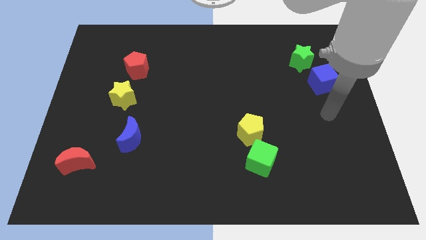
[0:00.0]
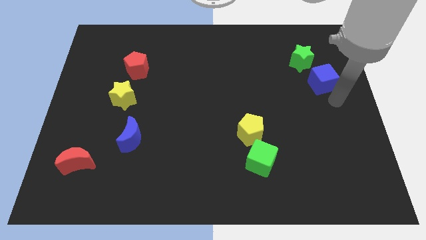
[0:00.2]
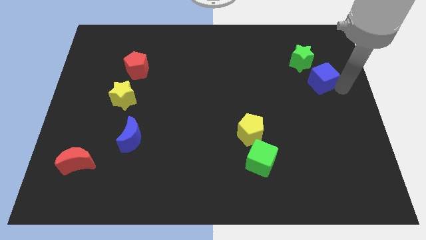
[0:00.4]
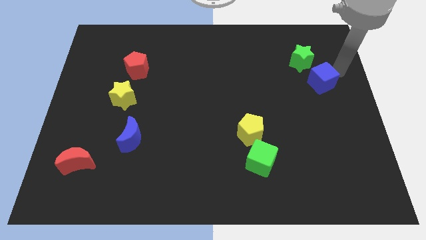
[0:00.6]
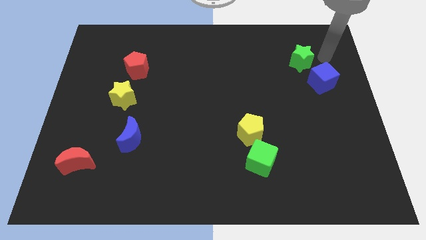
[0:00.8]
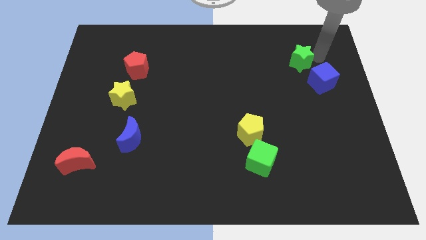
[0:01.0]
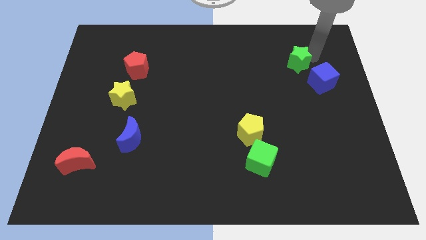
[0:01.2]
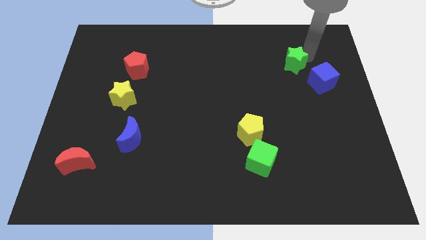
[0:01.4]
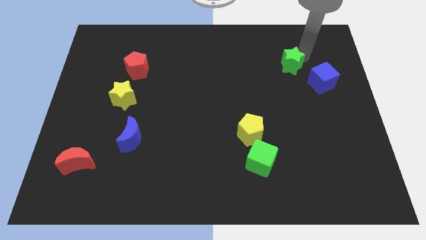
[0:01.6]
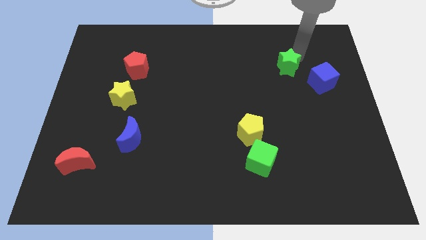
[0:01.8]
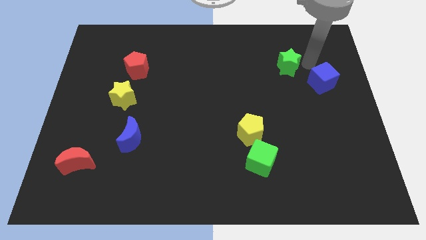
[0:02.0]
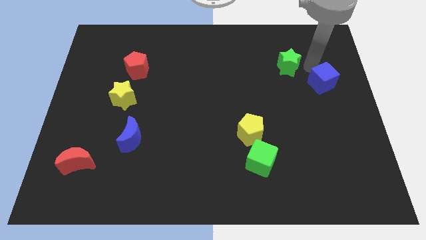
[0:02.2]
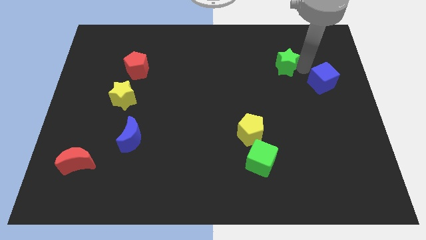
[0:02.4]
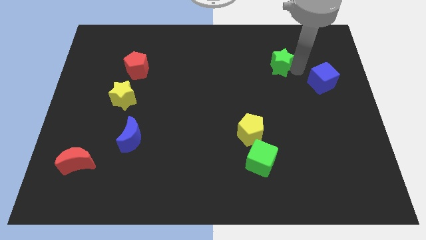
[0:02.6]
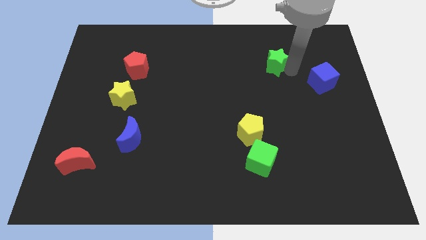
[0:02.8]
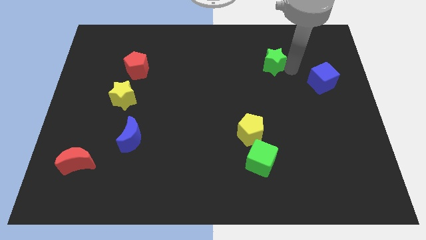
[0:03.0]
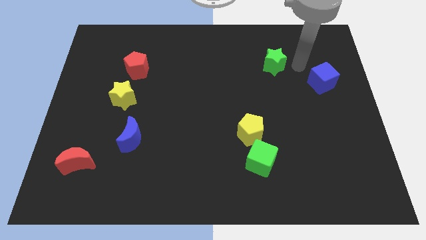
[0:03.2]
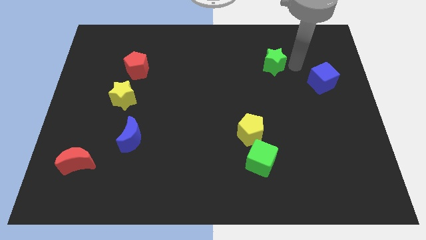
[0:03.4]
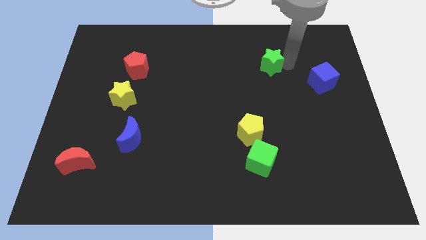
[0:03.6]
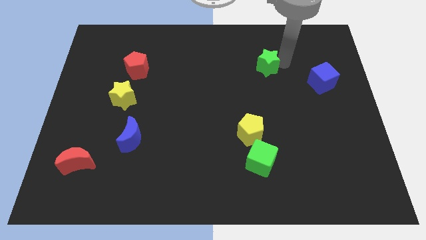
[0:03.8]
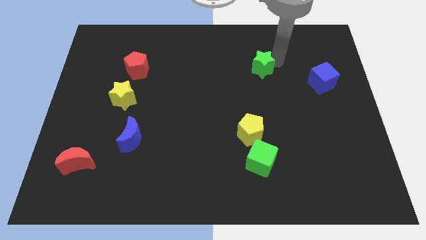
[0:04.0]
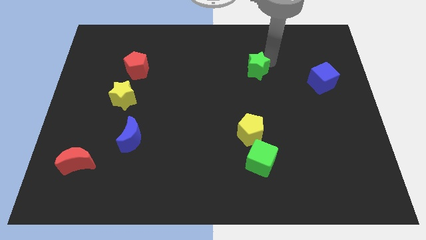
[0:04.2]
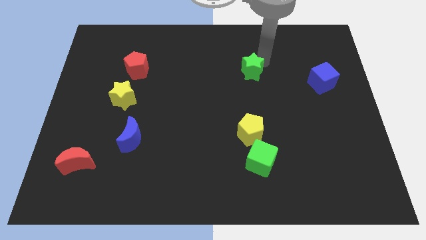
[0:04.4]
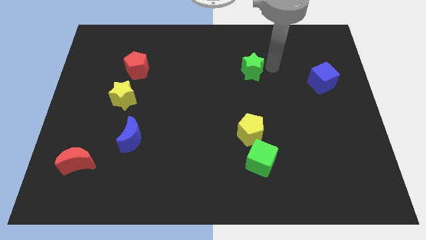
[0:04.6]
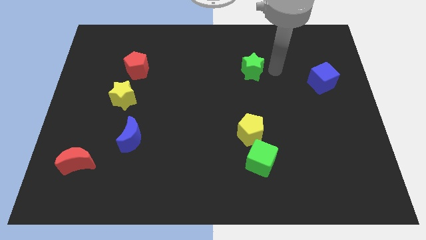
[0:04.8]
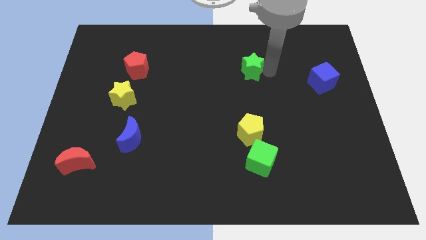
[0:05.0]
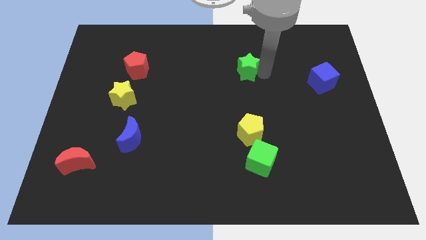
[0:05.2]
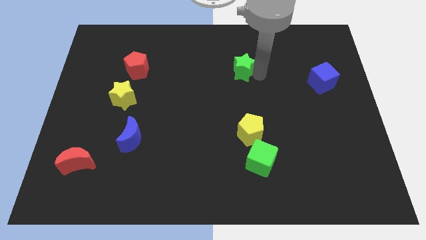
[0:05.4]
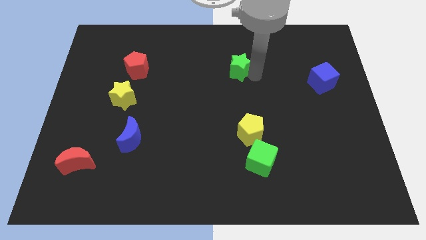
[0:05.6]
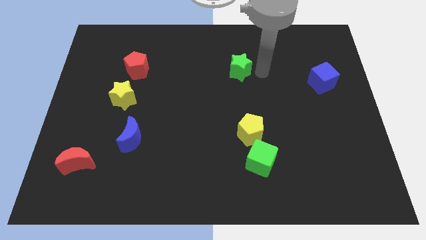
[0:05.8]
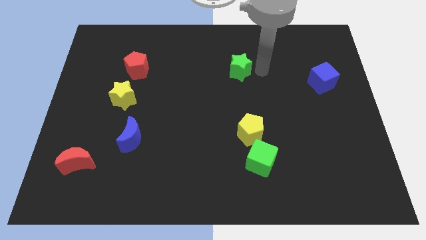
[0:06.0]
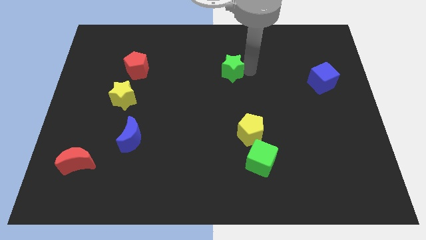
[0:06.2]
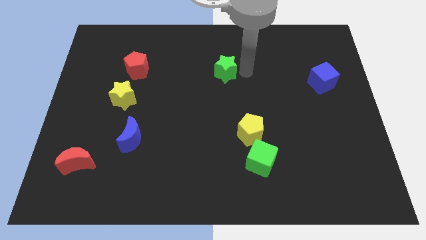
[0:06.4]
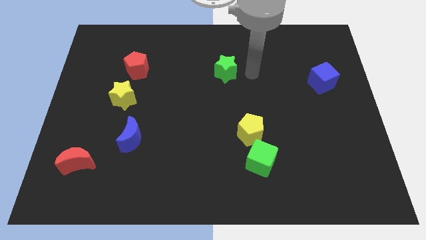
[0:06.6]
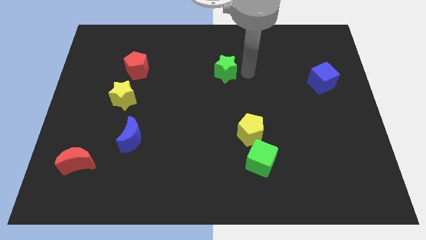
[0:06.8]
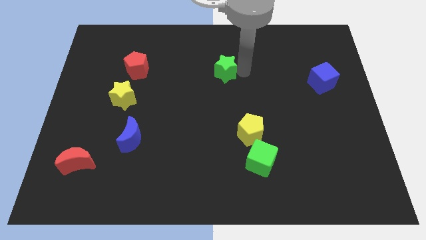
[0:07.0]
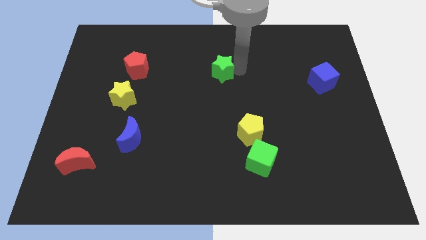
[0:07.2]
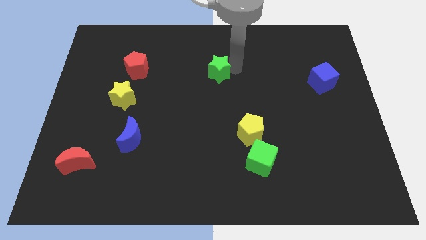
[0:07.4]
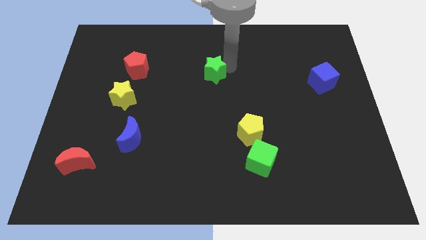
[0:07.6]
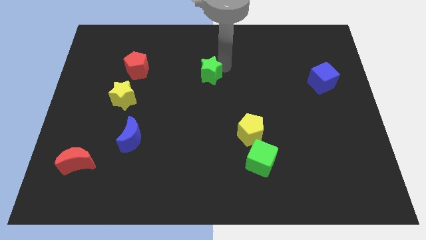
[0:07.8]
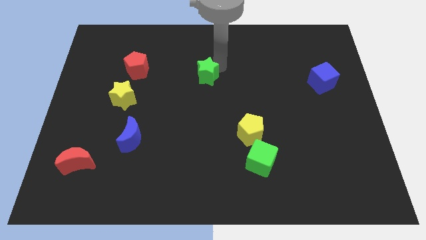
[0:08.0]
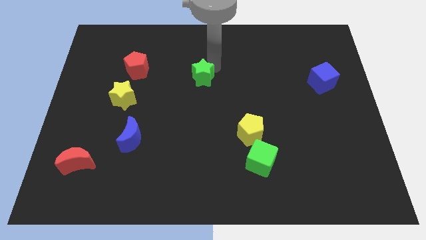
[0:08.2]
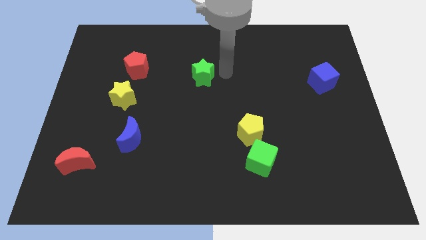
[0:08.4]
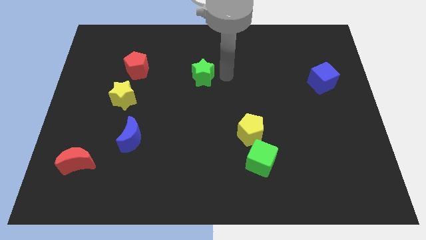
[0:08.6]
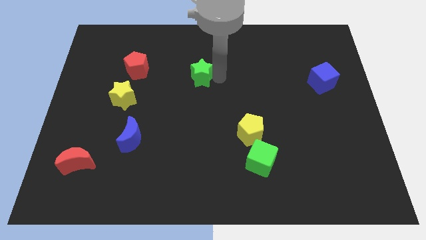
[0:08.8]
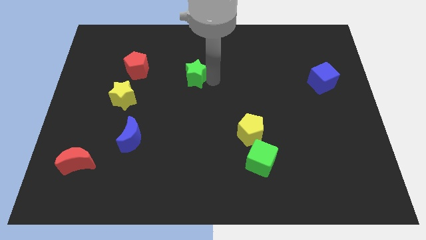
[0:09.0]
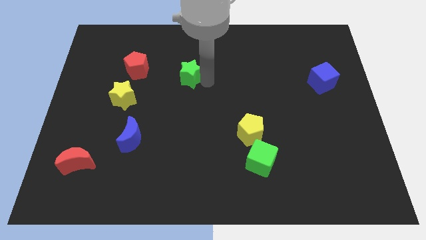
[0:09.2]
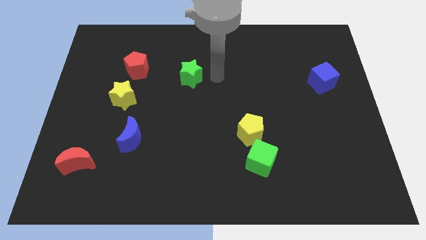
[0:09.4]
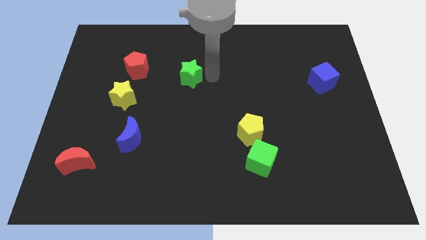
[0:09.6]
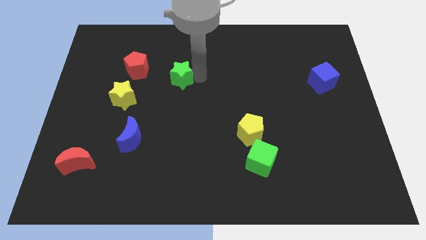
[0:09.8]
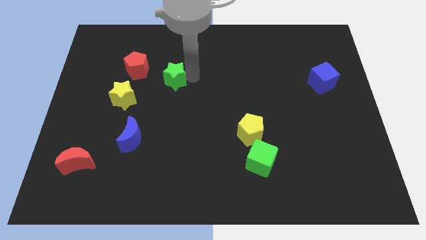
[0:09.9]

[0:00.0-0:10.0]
move the green star diagonally down and to the right of the red pentagon

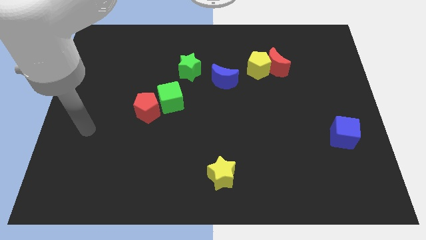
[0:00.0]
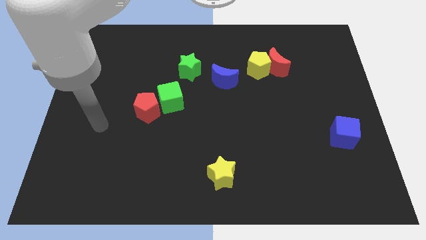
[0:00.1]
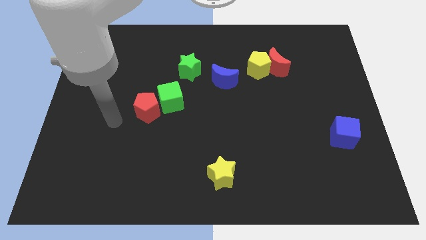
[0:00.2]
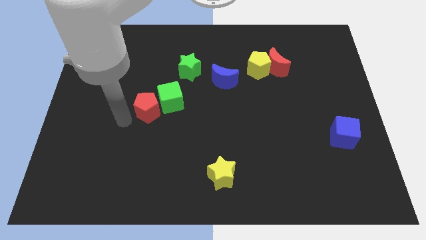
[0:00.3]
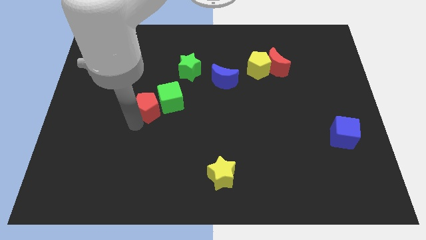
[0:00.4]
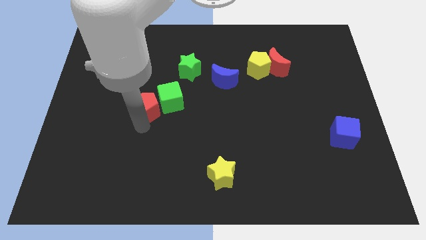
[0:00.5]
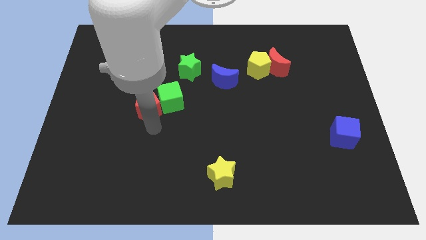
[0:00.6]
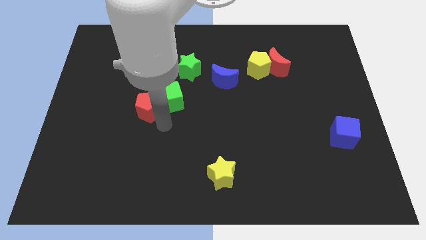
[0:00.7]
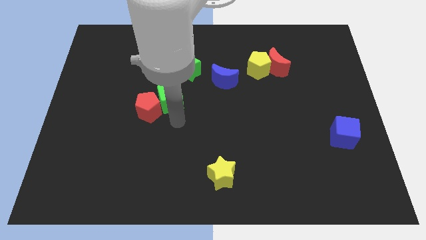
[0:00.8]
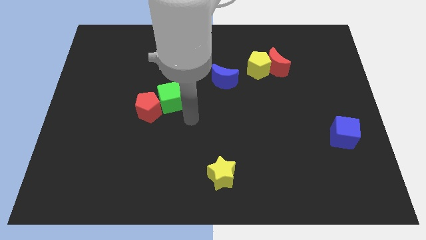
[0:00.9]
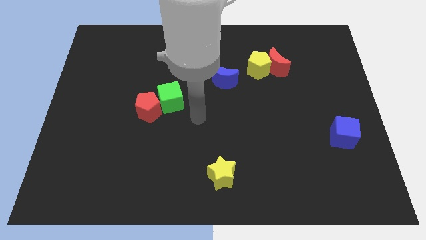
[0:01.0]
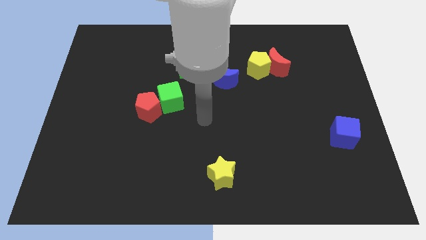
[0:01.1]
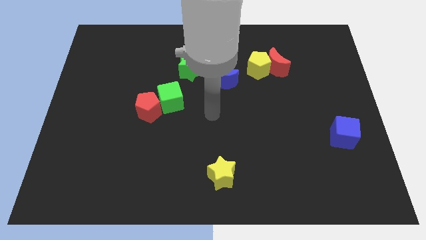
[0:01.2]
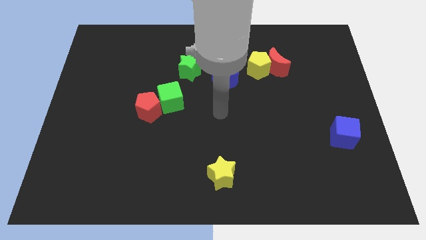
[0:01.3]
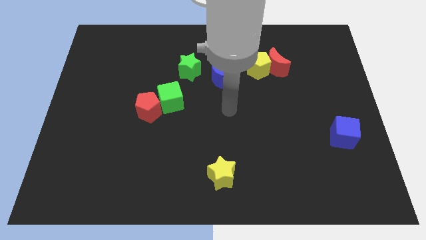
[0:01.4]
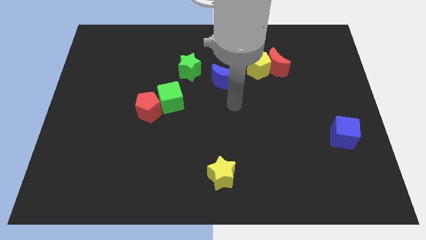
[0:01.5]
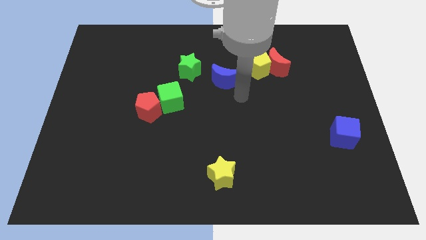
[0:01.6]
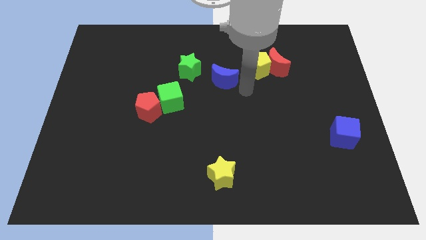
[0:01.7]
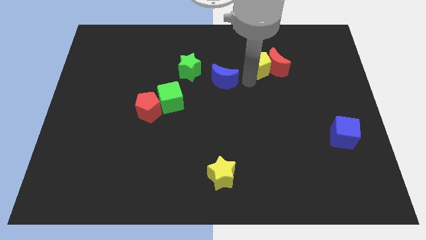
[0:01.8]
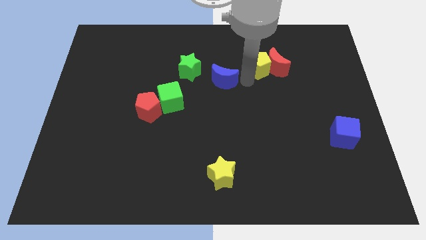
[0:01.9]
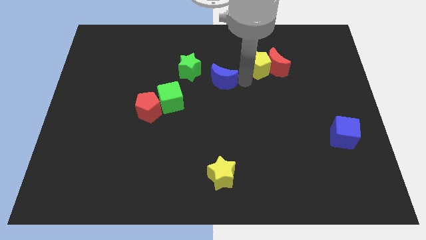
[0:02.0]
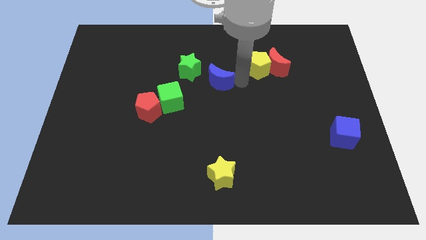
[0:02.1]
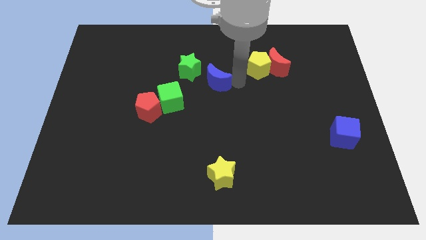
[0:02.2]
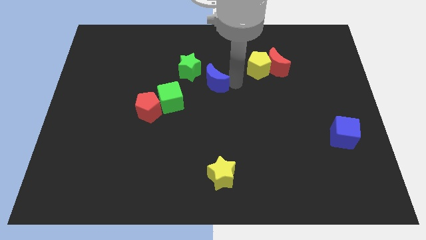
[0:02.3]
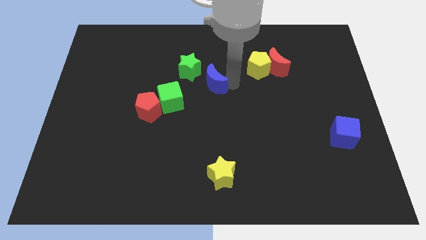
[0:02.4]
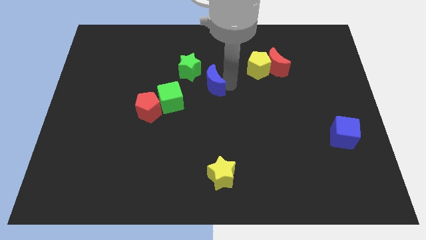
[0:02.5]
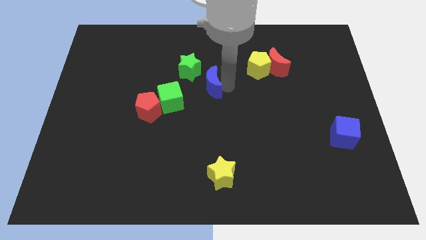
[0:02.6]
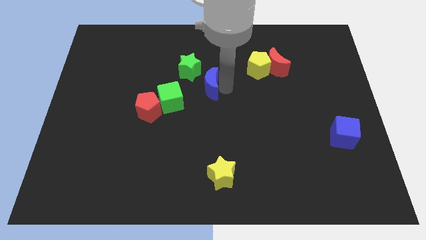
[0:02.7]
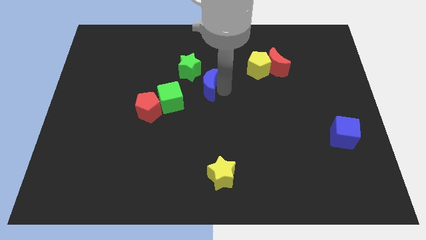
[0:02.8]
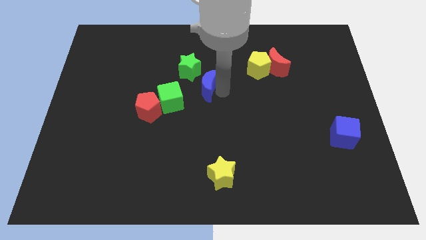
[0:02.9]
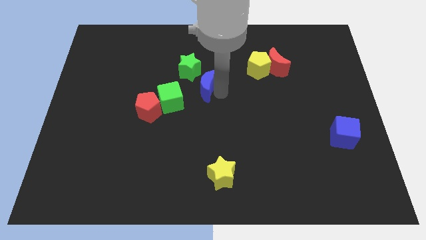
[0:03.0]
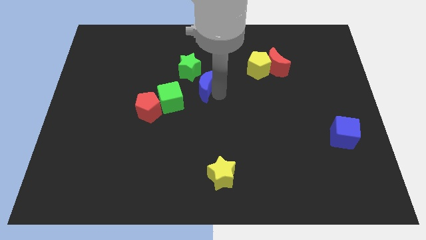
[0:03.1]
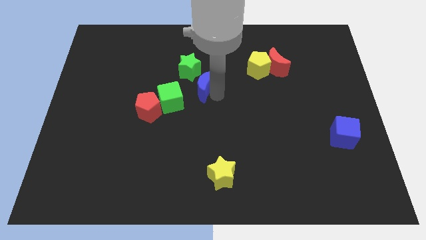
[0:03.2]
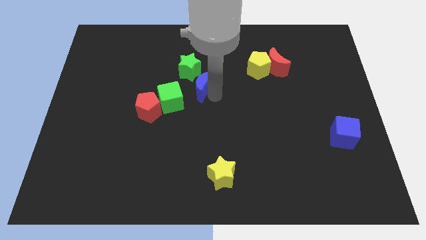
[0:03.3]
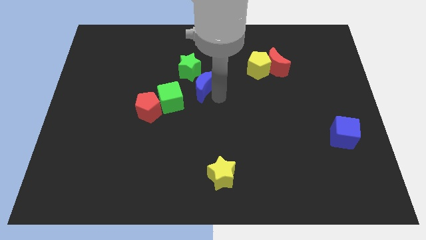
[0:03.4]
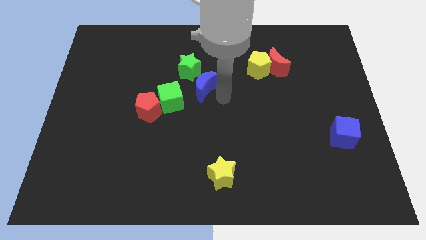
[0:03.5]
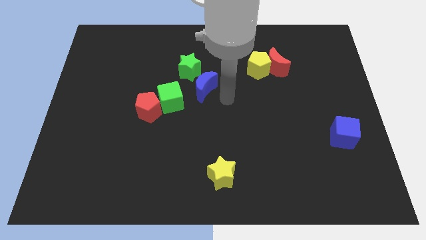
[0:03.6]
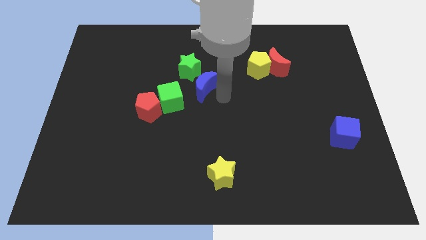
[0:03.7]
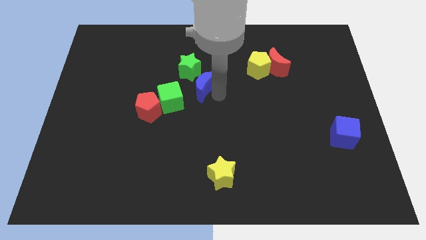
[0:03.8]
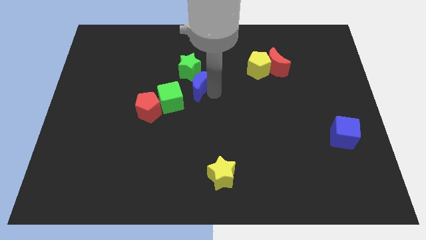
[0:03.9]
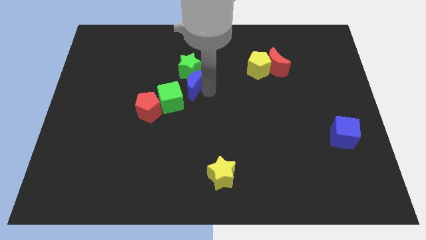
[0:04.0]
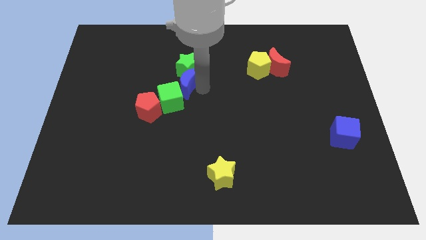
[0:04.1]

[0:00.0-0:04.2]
put the blue moon to the top side of the green cube
